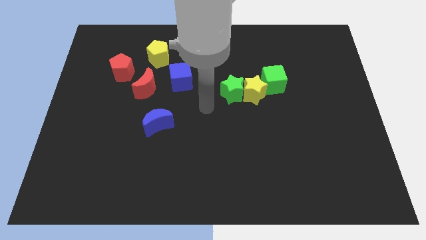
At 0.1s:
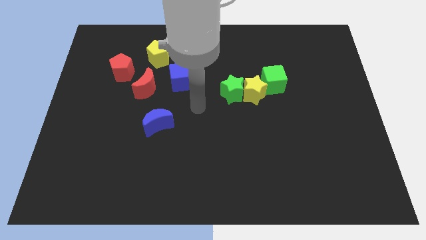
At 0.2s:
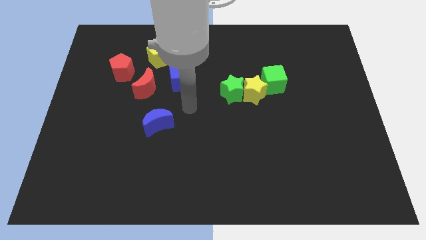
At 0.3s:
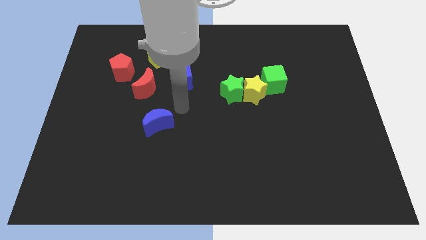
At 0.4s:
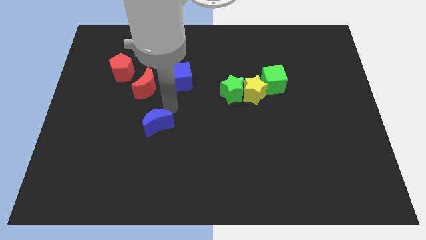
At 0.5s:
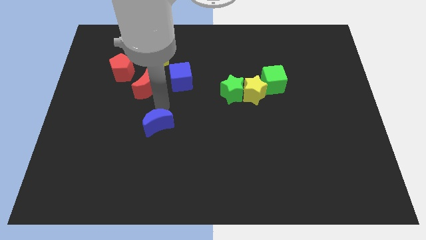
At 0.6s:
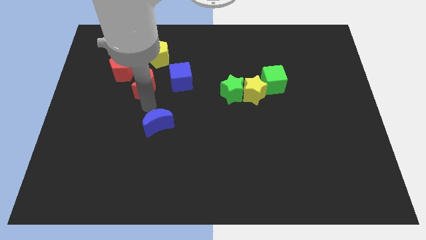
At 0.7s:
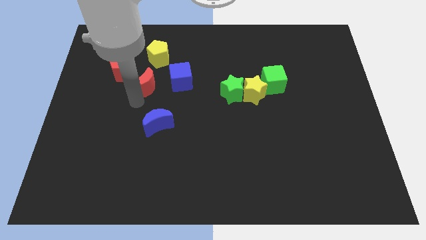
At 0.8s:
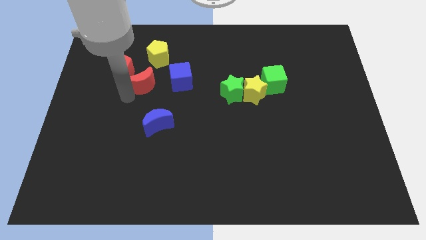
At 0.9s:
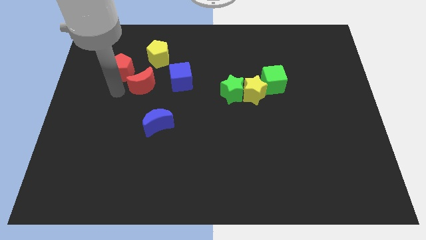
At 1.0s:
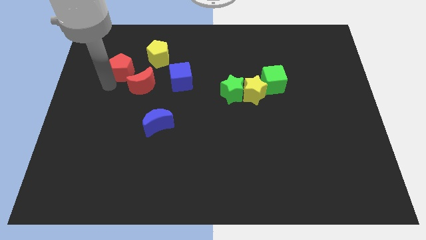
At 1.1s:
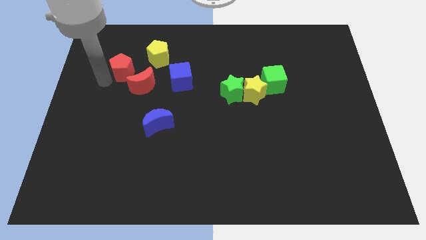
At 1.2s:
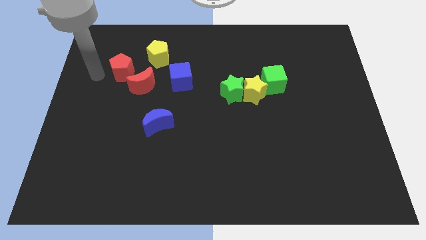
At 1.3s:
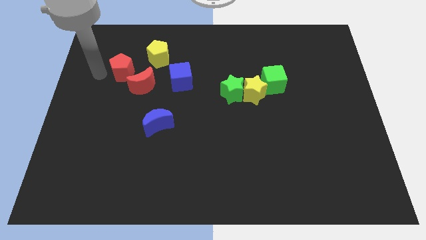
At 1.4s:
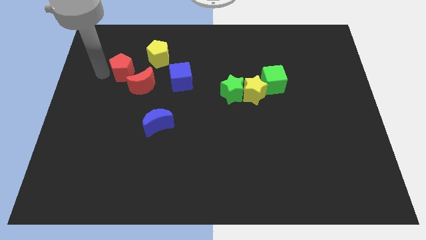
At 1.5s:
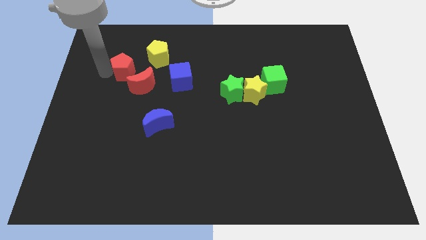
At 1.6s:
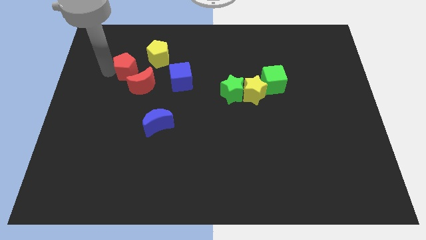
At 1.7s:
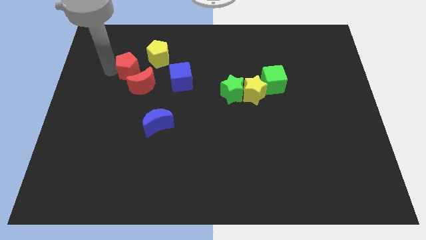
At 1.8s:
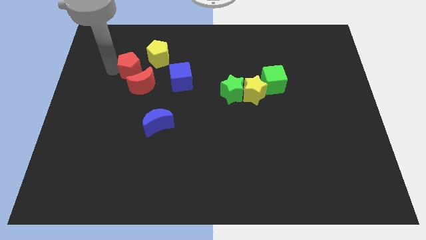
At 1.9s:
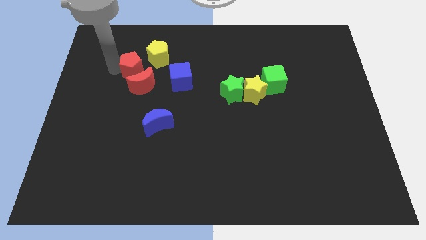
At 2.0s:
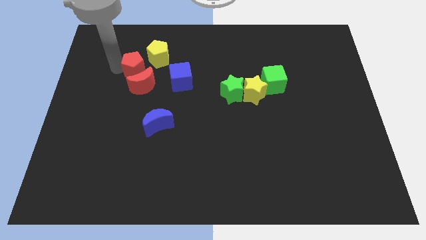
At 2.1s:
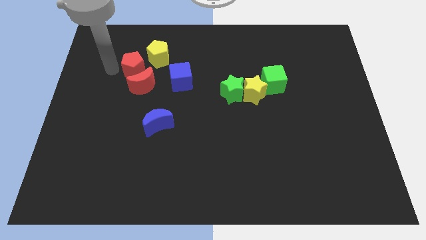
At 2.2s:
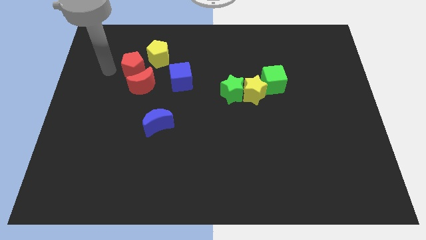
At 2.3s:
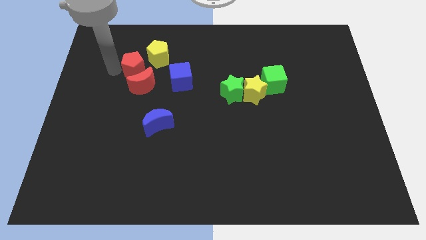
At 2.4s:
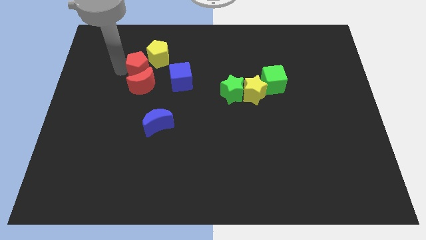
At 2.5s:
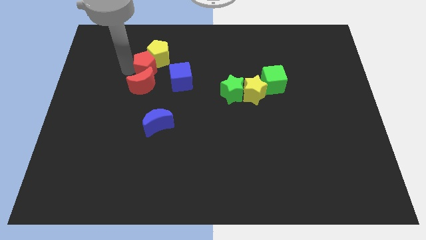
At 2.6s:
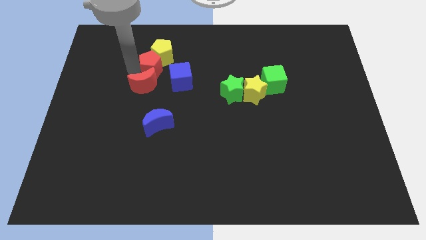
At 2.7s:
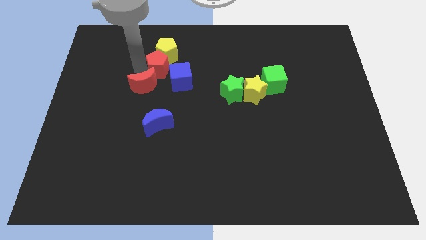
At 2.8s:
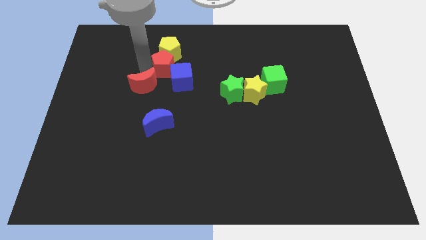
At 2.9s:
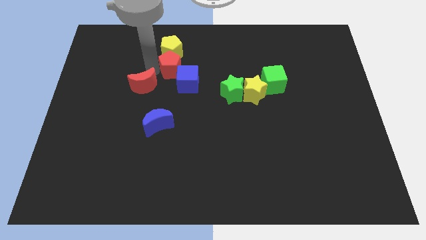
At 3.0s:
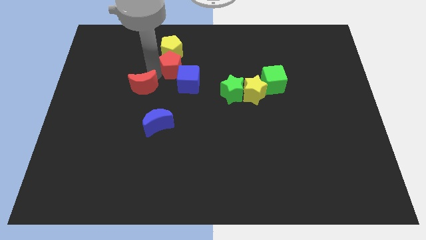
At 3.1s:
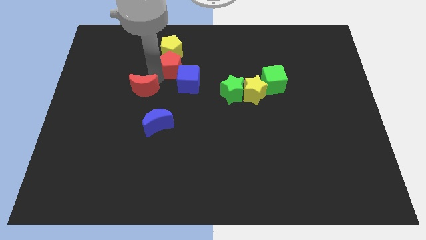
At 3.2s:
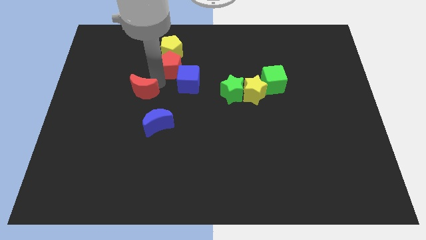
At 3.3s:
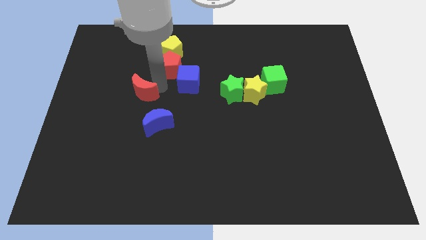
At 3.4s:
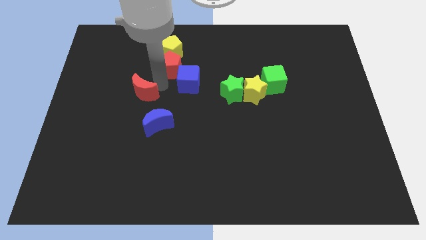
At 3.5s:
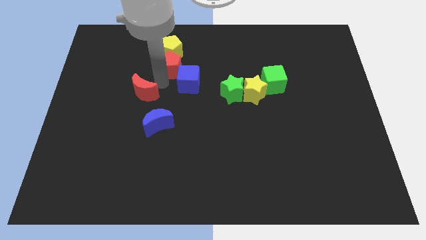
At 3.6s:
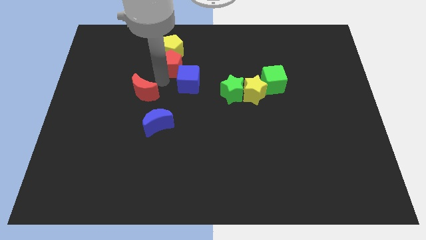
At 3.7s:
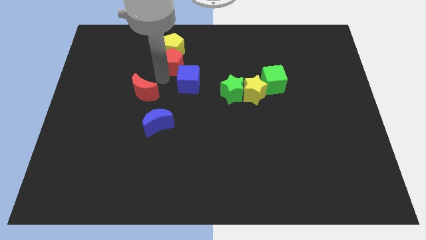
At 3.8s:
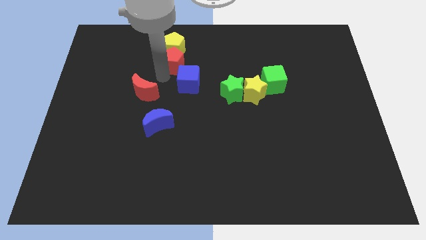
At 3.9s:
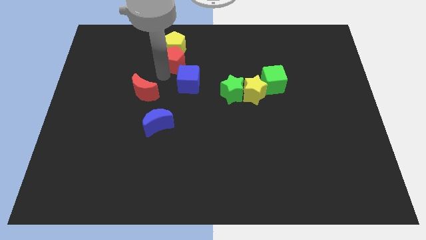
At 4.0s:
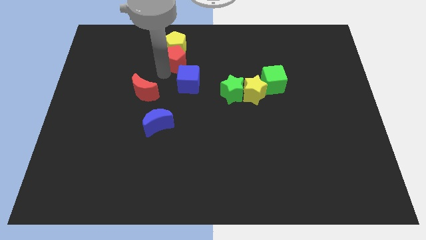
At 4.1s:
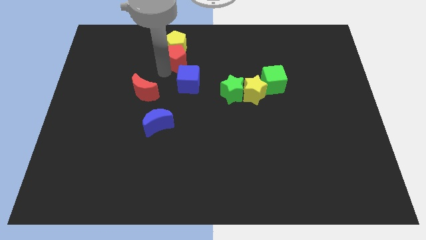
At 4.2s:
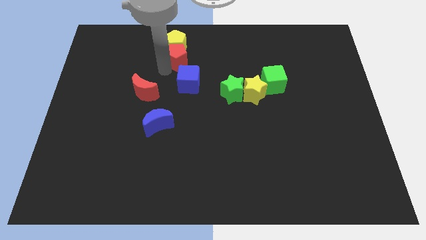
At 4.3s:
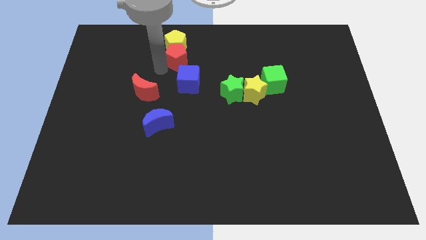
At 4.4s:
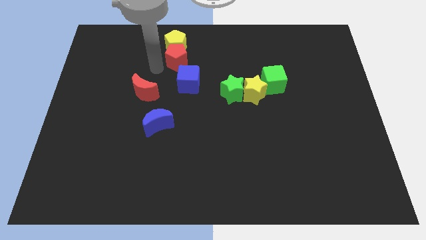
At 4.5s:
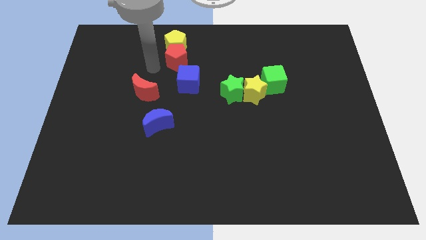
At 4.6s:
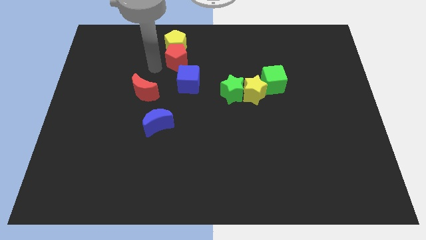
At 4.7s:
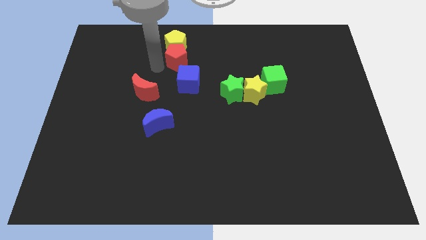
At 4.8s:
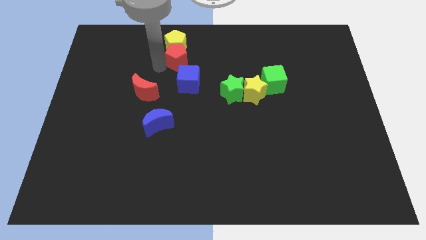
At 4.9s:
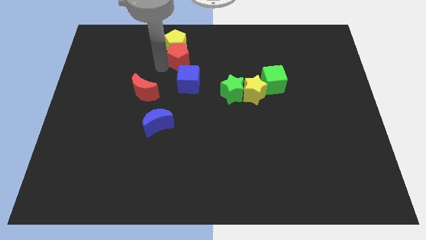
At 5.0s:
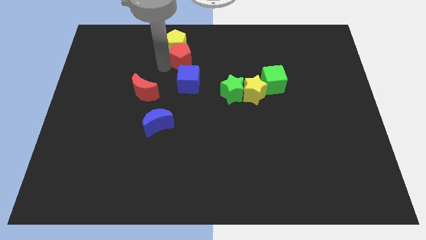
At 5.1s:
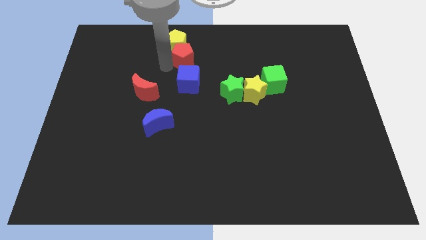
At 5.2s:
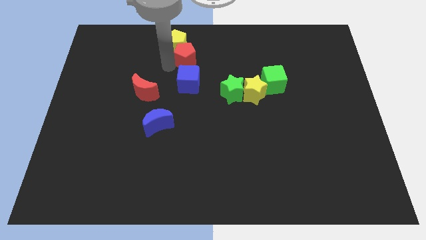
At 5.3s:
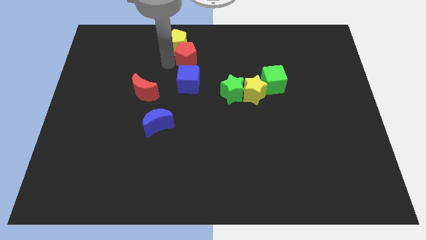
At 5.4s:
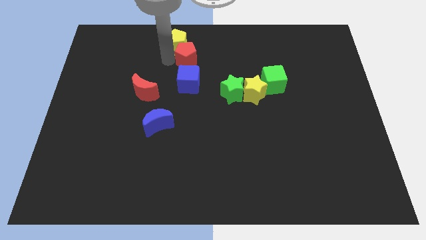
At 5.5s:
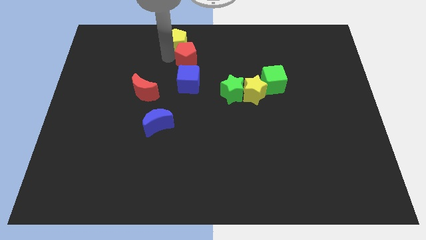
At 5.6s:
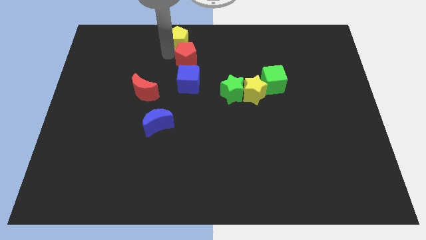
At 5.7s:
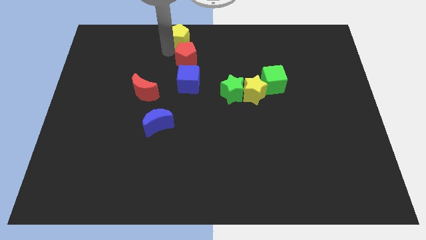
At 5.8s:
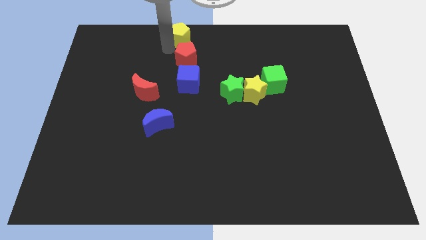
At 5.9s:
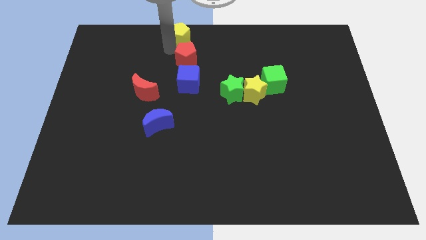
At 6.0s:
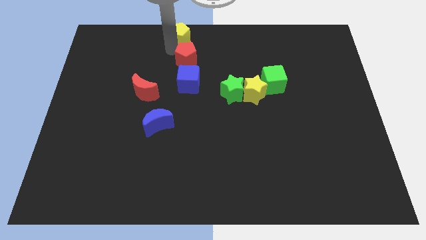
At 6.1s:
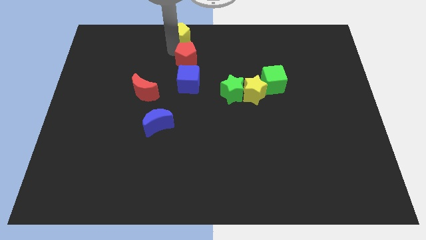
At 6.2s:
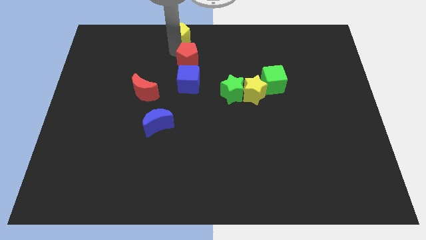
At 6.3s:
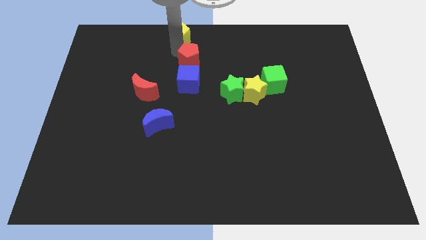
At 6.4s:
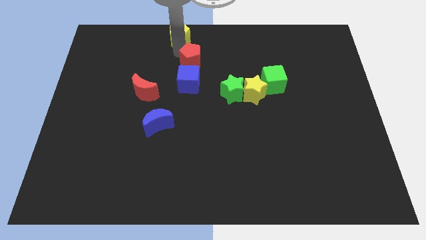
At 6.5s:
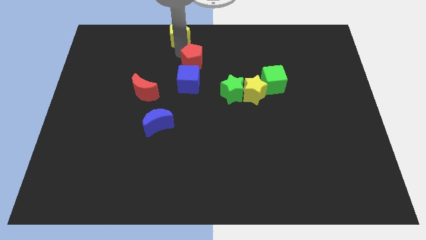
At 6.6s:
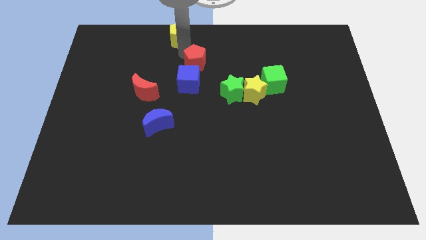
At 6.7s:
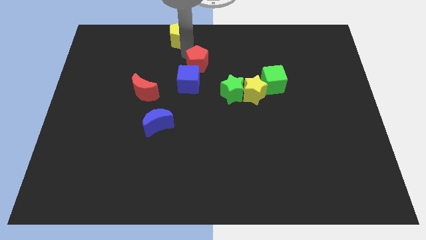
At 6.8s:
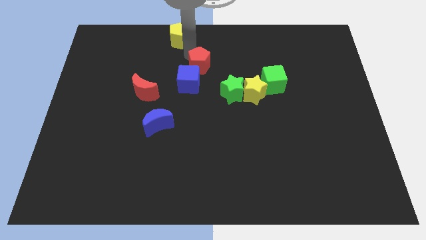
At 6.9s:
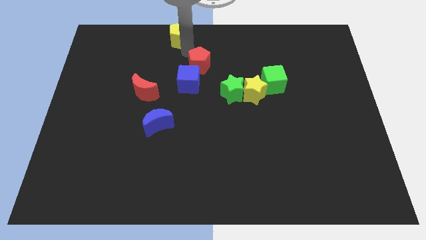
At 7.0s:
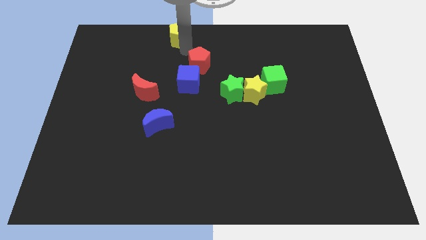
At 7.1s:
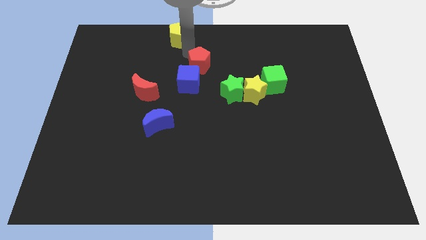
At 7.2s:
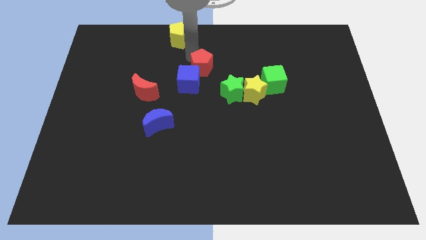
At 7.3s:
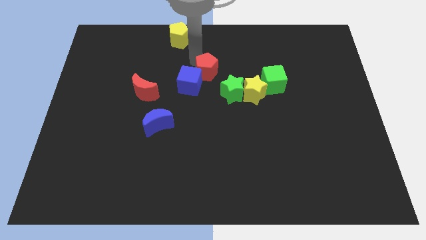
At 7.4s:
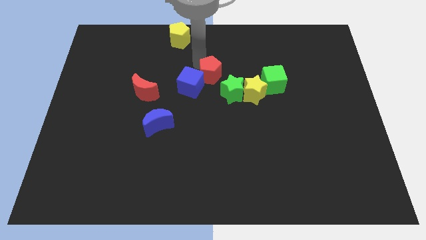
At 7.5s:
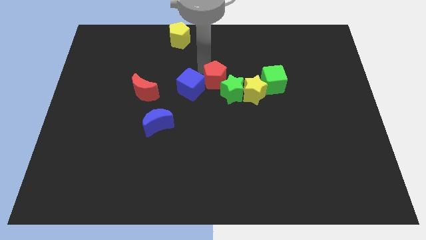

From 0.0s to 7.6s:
push the red pentagon to the green star
